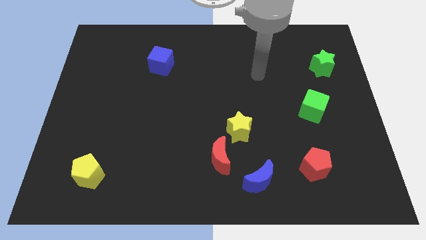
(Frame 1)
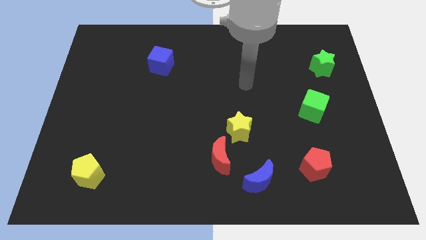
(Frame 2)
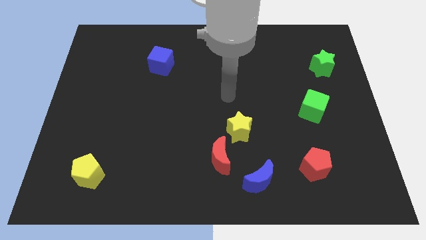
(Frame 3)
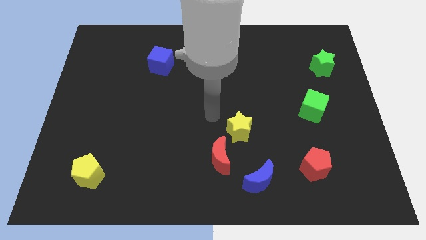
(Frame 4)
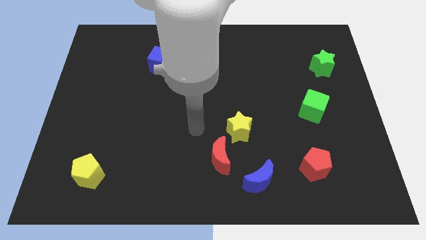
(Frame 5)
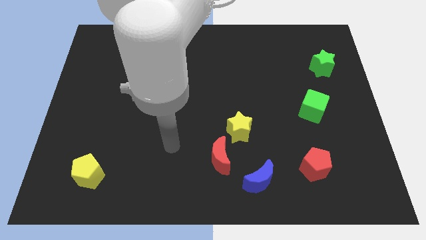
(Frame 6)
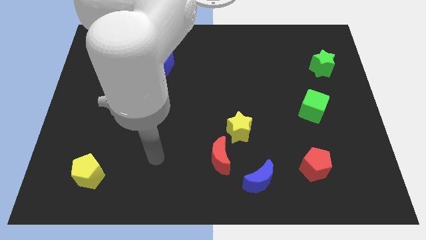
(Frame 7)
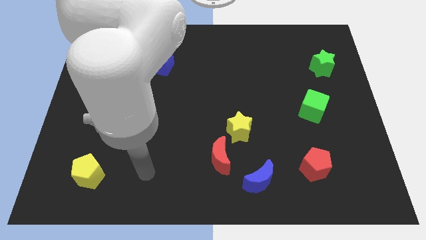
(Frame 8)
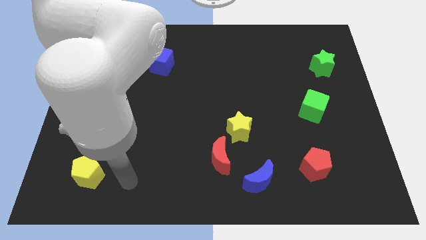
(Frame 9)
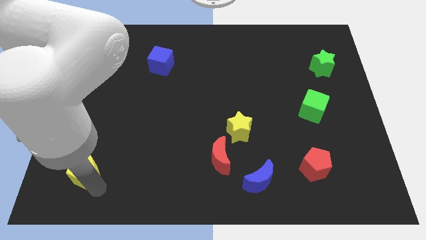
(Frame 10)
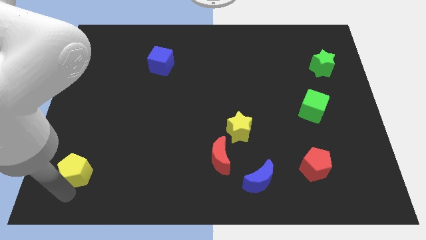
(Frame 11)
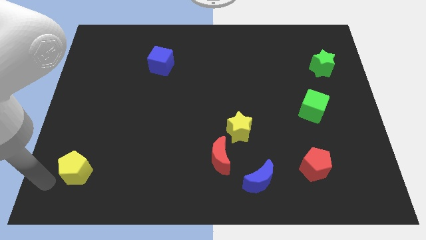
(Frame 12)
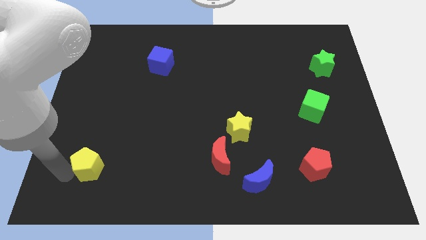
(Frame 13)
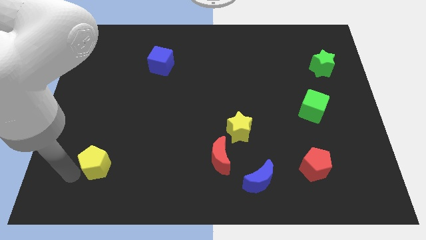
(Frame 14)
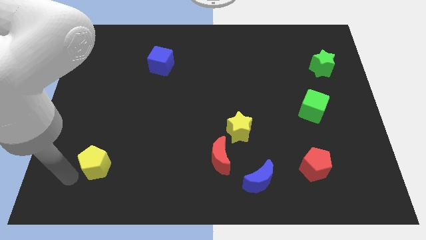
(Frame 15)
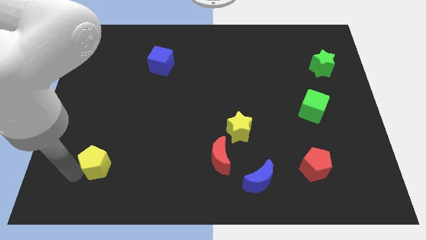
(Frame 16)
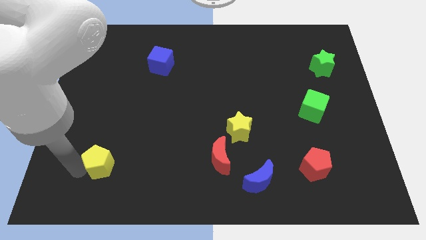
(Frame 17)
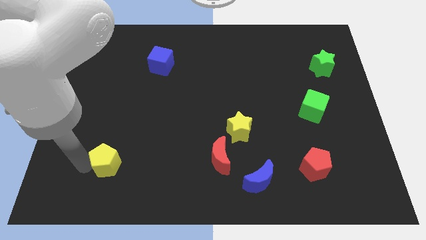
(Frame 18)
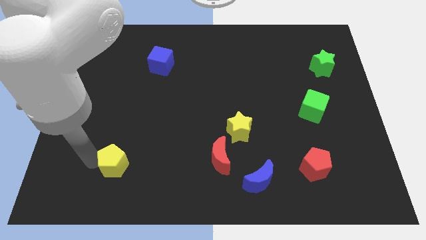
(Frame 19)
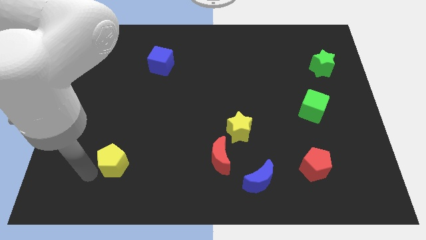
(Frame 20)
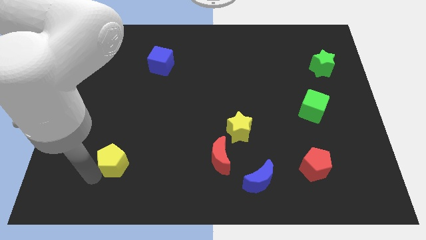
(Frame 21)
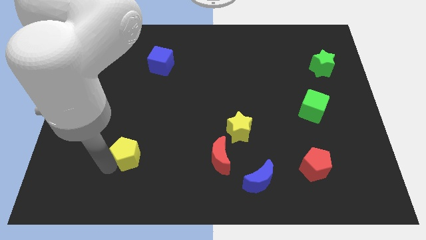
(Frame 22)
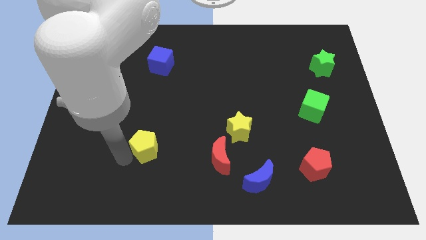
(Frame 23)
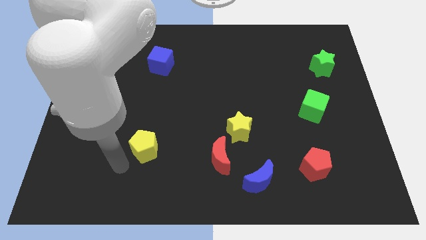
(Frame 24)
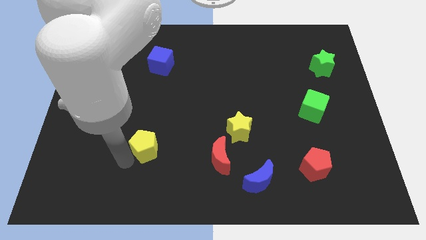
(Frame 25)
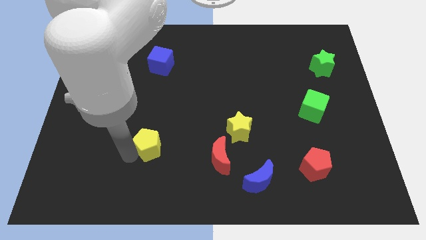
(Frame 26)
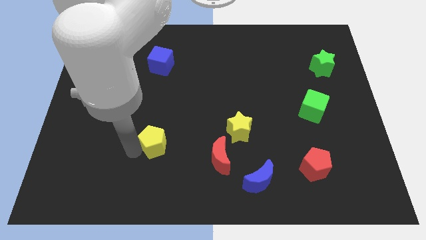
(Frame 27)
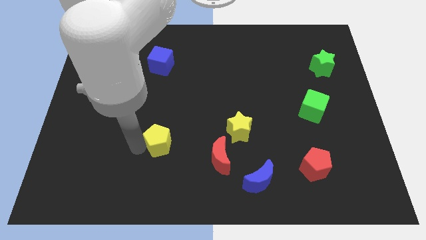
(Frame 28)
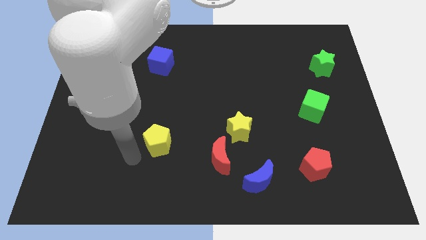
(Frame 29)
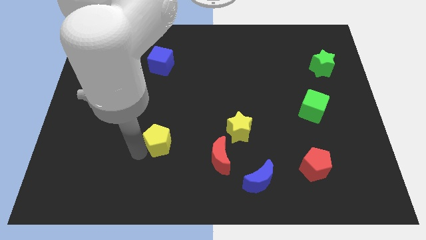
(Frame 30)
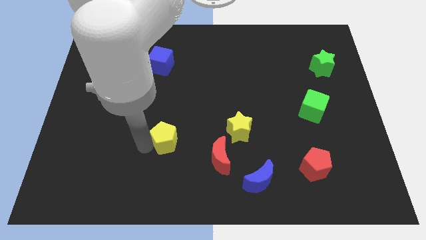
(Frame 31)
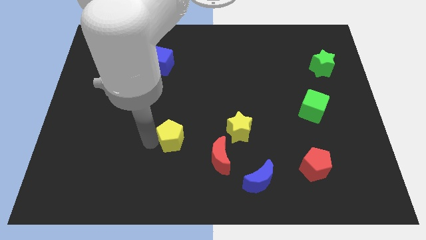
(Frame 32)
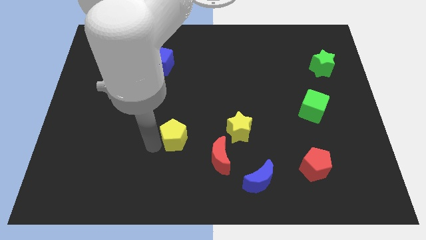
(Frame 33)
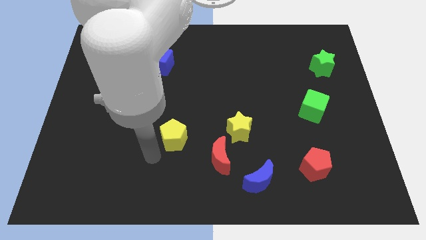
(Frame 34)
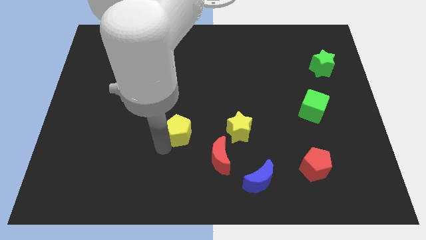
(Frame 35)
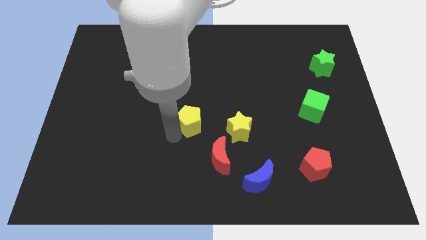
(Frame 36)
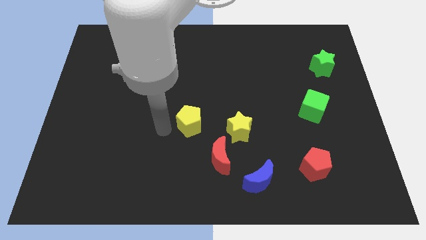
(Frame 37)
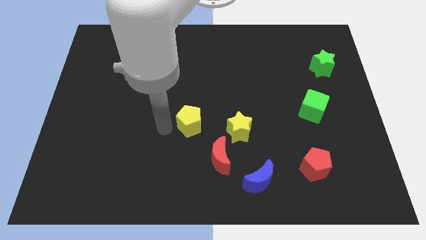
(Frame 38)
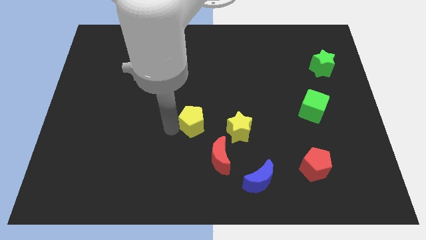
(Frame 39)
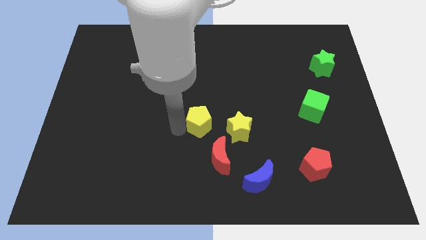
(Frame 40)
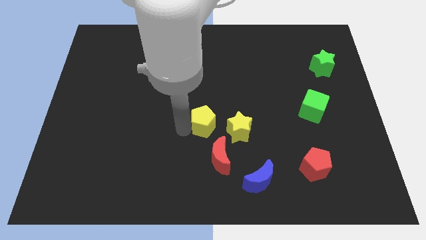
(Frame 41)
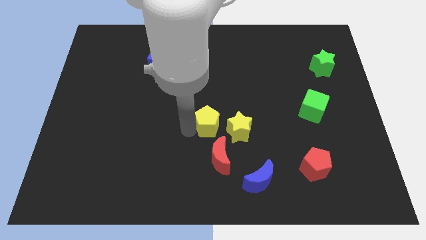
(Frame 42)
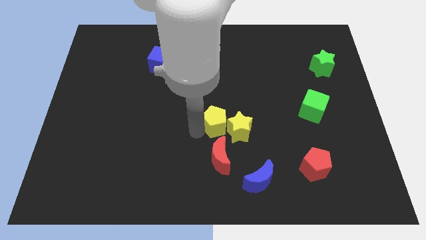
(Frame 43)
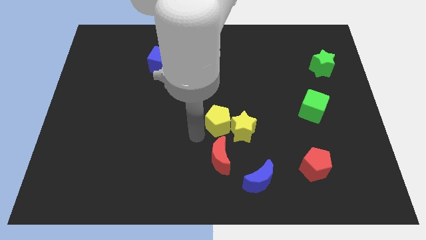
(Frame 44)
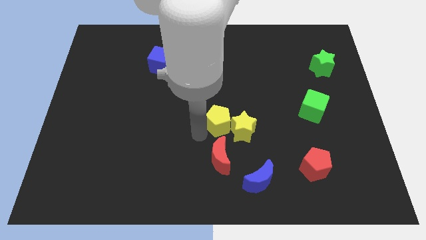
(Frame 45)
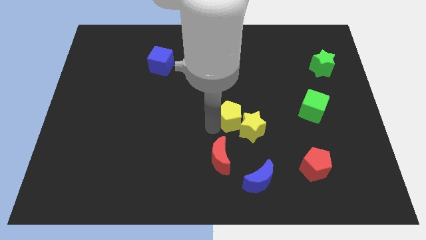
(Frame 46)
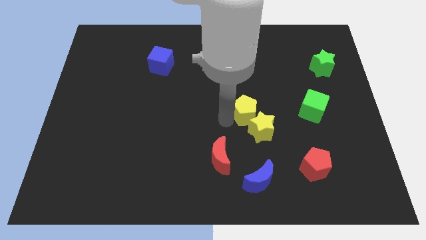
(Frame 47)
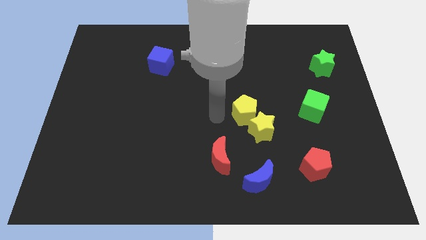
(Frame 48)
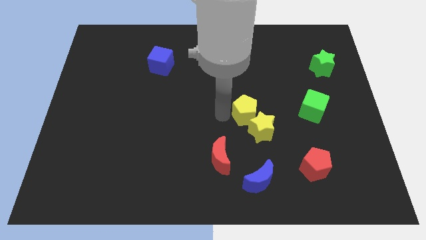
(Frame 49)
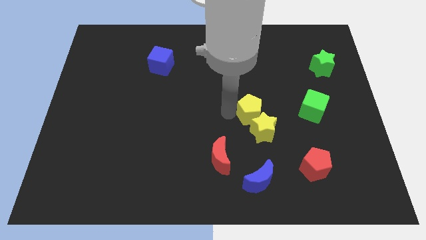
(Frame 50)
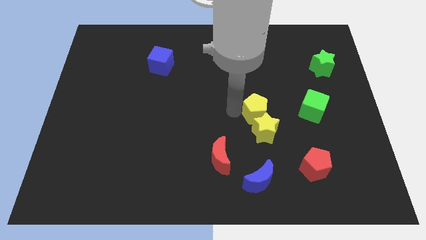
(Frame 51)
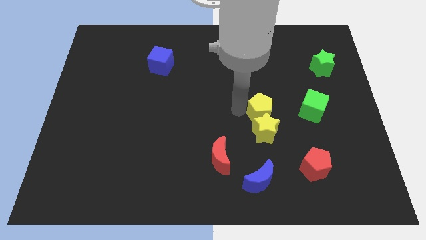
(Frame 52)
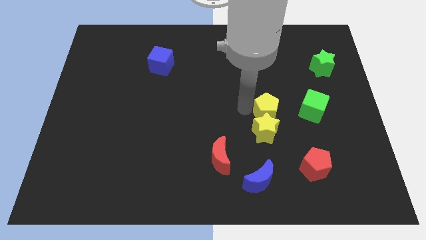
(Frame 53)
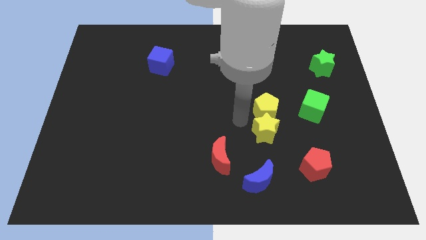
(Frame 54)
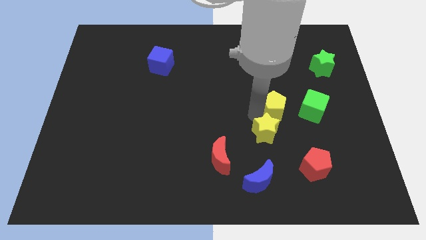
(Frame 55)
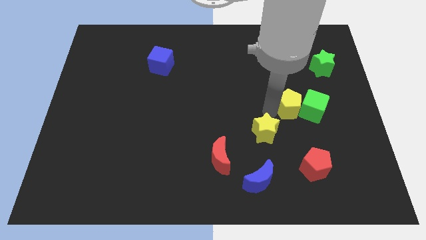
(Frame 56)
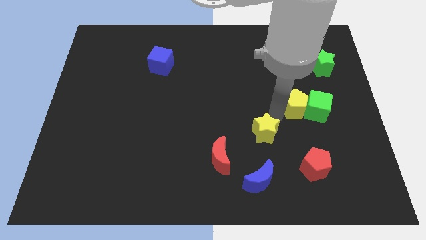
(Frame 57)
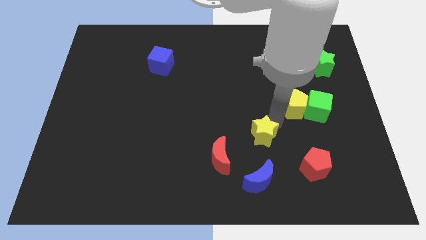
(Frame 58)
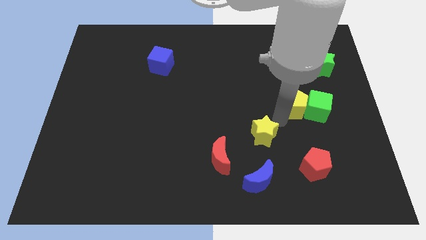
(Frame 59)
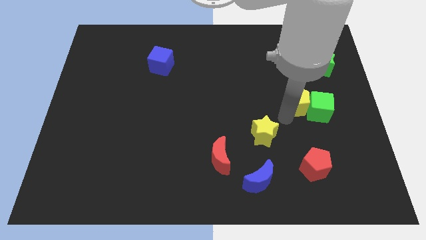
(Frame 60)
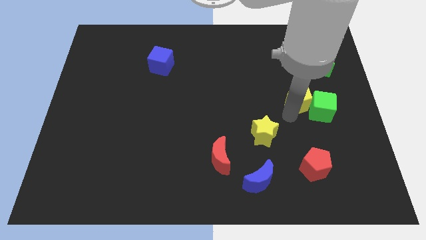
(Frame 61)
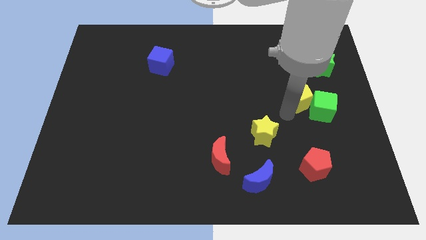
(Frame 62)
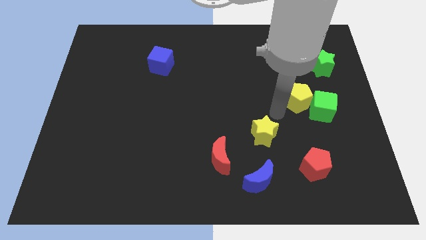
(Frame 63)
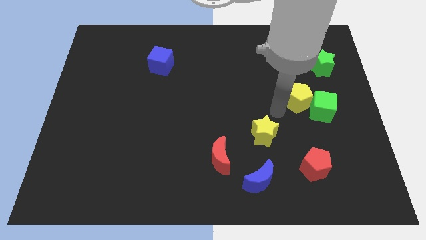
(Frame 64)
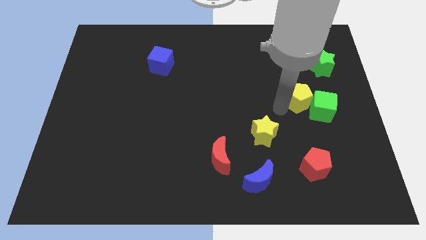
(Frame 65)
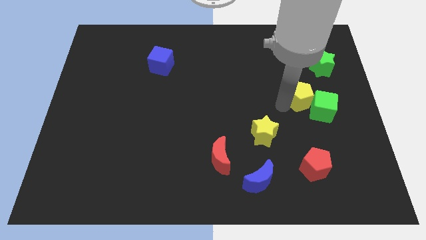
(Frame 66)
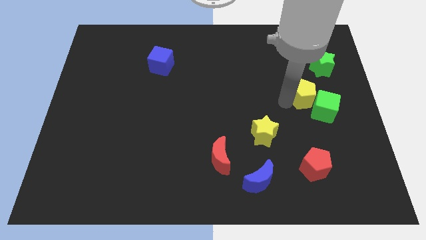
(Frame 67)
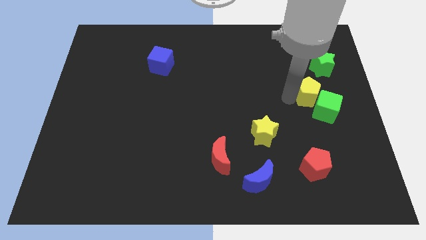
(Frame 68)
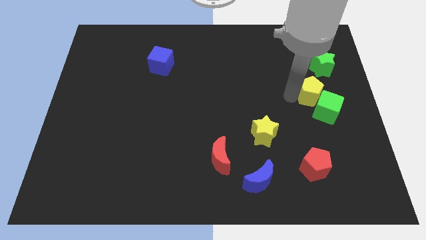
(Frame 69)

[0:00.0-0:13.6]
put the yellow pentagon below the green star

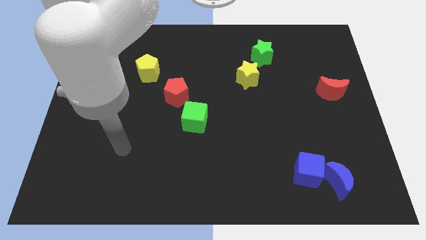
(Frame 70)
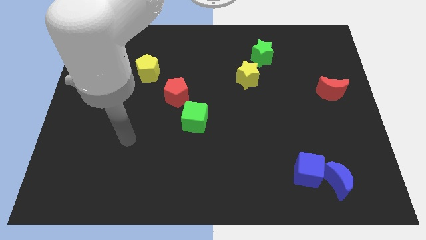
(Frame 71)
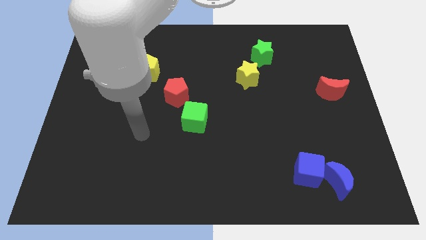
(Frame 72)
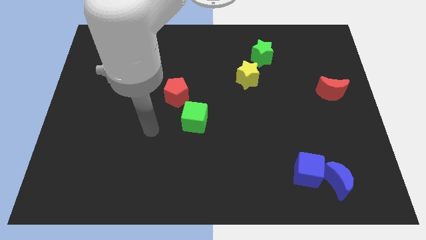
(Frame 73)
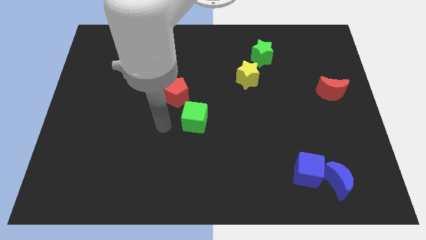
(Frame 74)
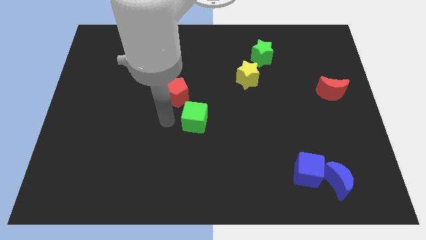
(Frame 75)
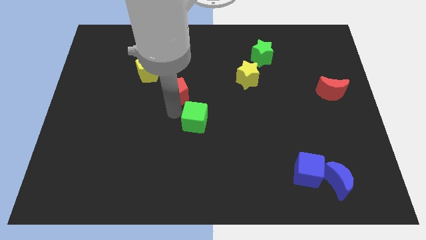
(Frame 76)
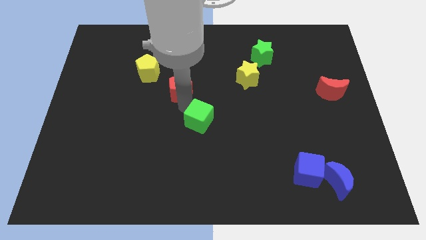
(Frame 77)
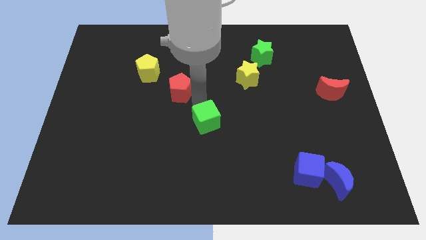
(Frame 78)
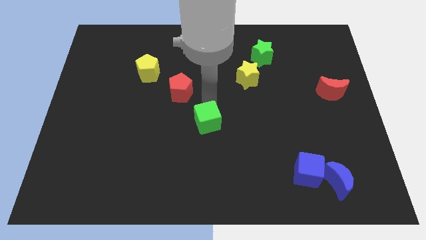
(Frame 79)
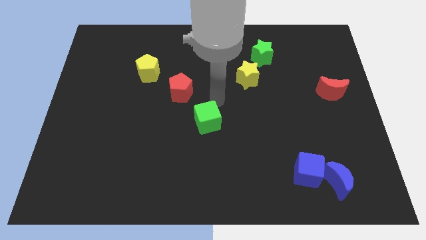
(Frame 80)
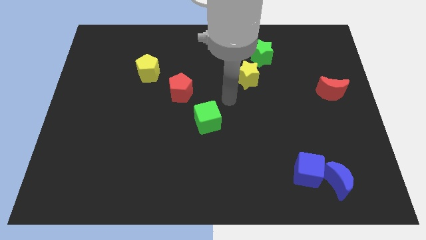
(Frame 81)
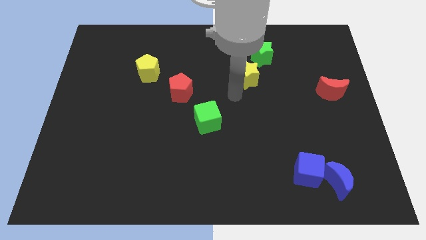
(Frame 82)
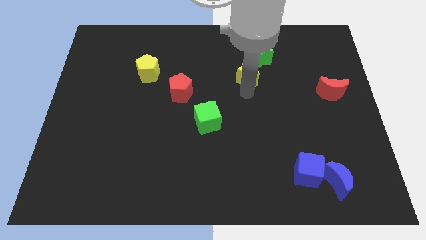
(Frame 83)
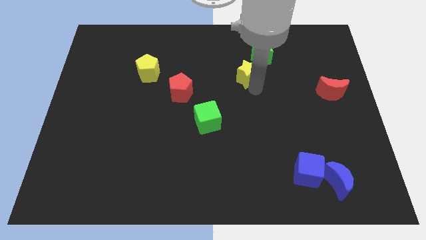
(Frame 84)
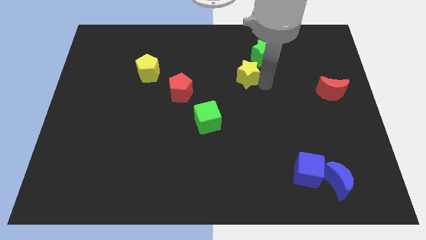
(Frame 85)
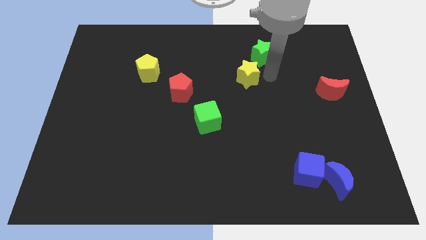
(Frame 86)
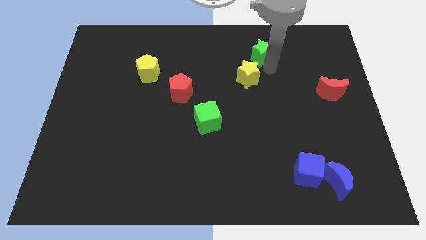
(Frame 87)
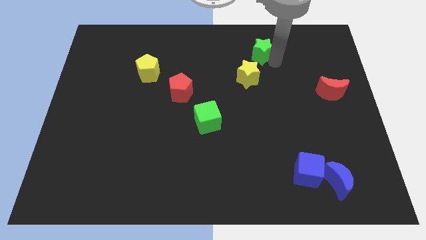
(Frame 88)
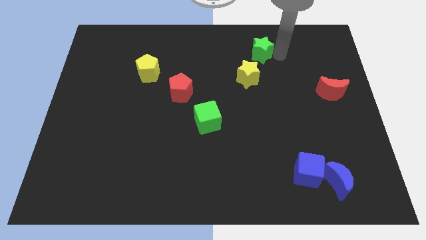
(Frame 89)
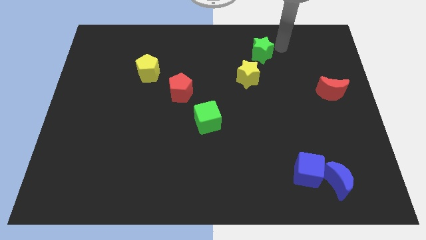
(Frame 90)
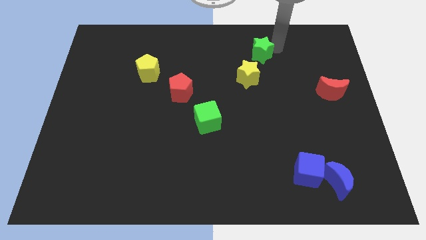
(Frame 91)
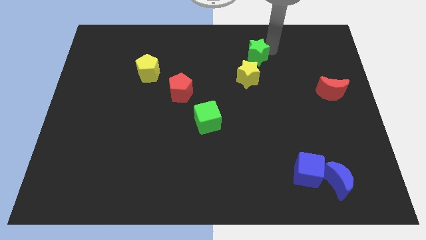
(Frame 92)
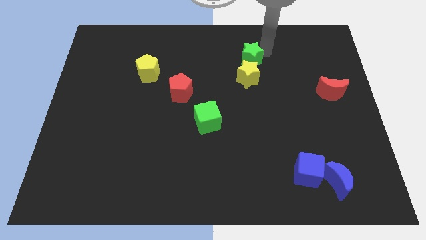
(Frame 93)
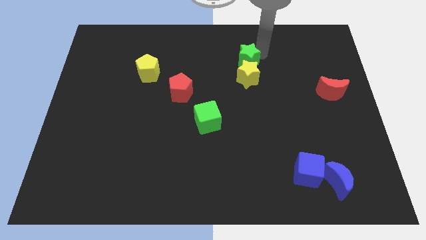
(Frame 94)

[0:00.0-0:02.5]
push the green star to the top left of the yellow star
